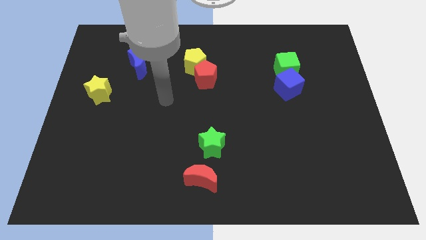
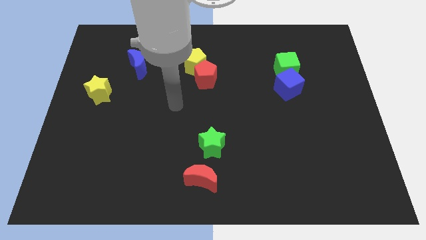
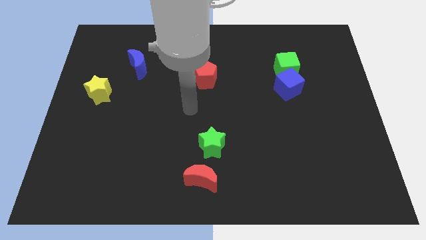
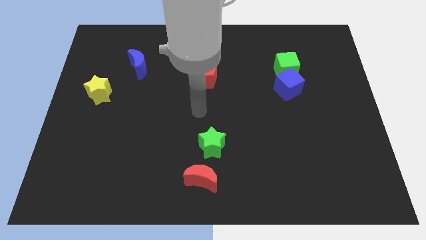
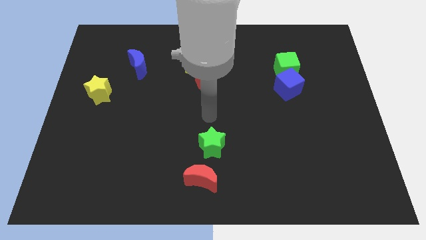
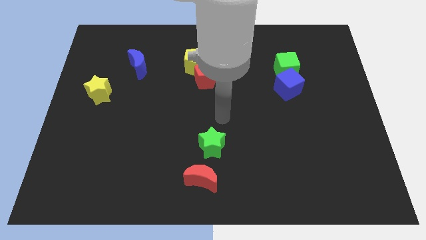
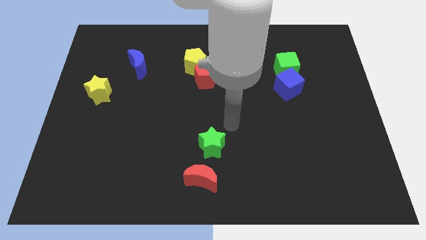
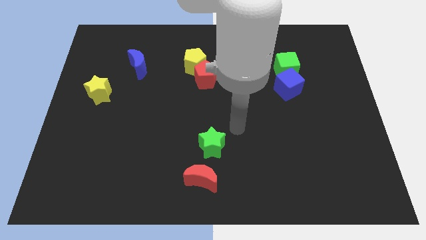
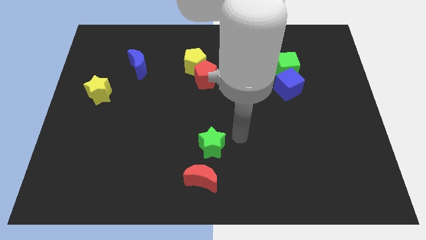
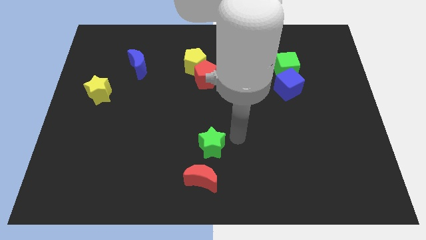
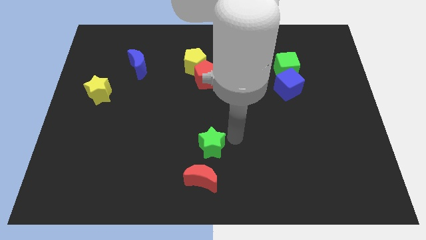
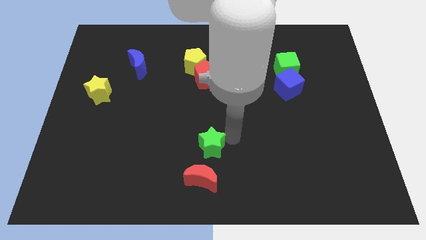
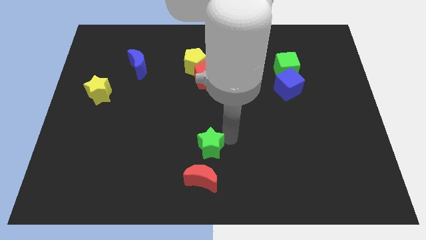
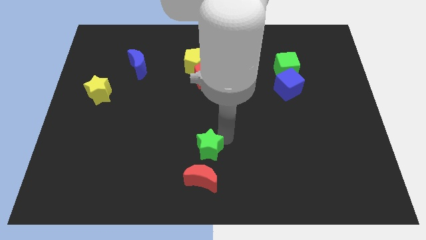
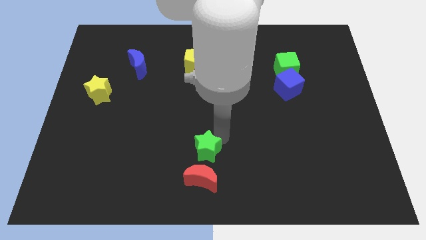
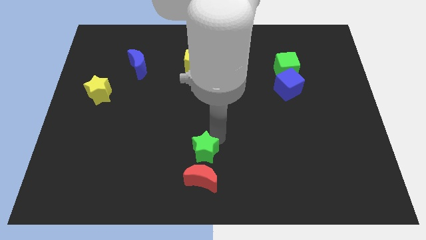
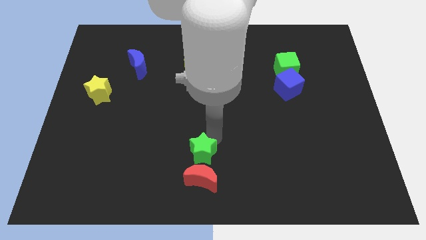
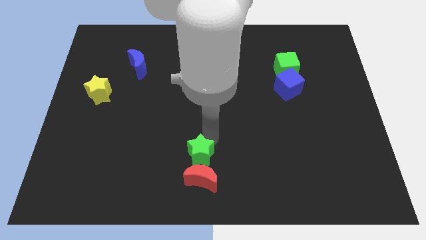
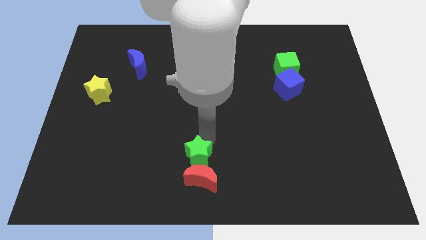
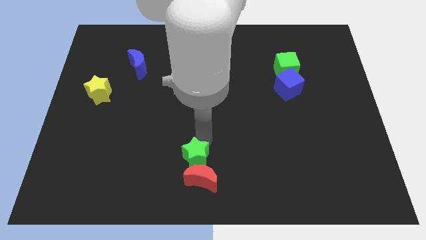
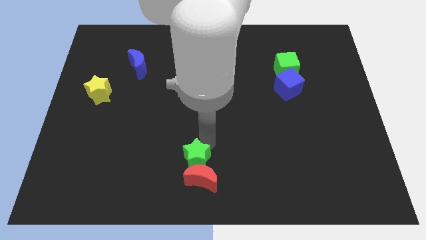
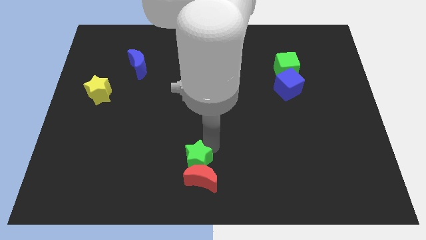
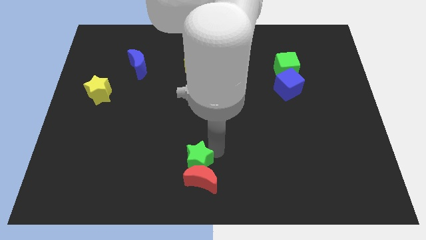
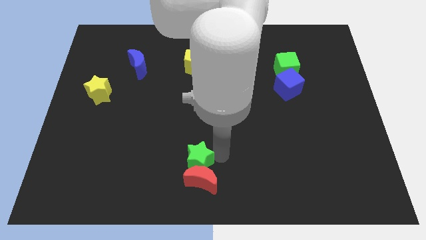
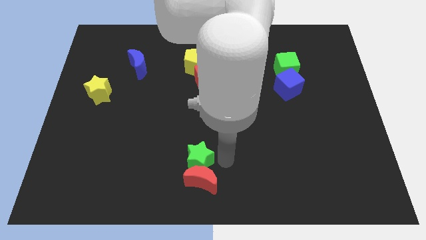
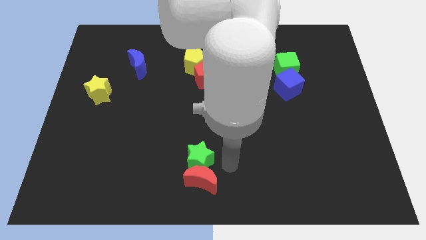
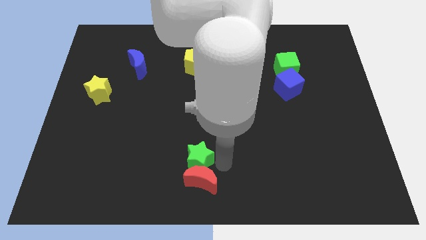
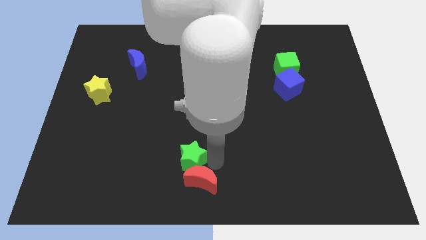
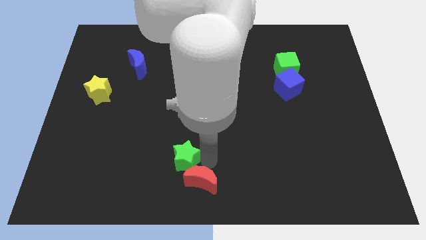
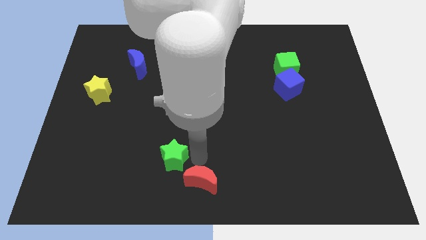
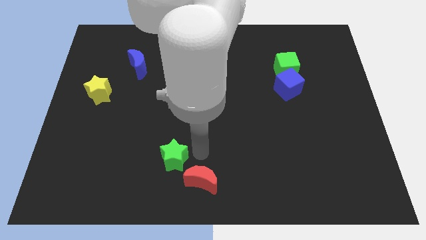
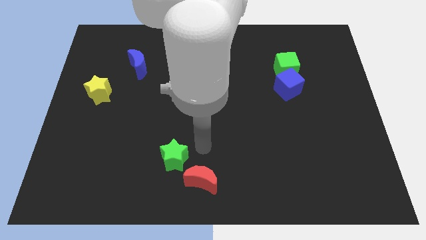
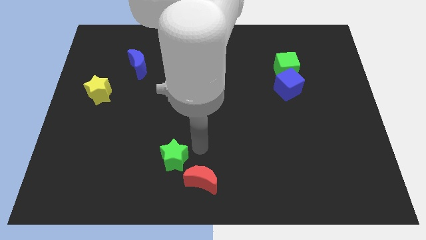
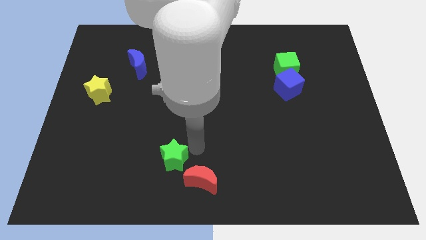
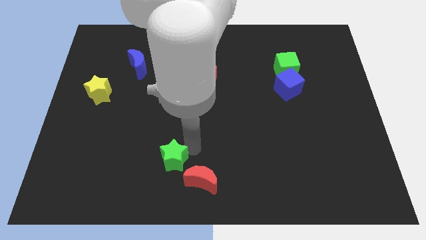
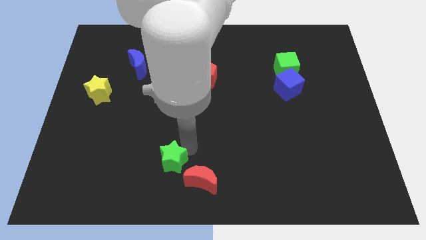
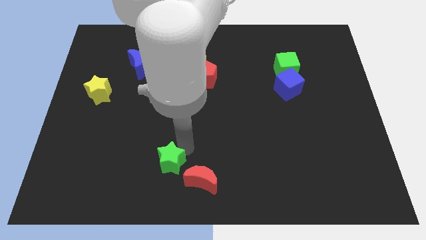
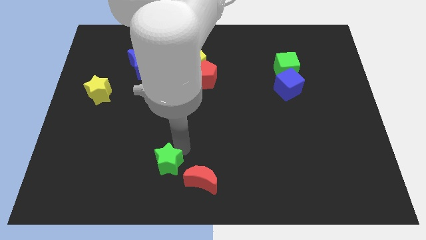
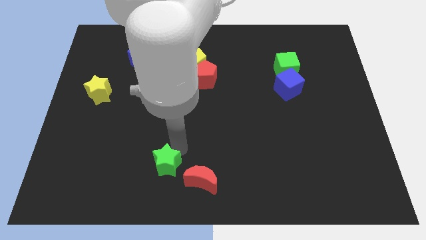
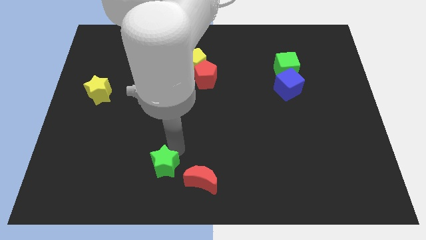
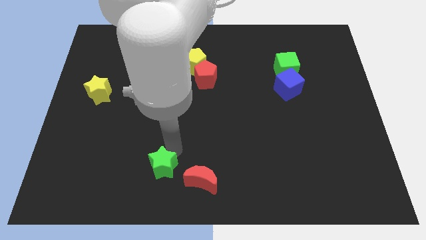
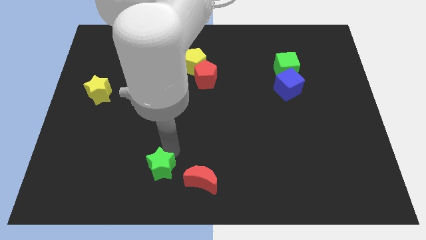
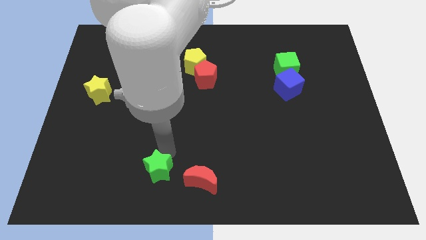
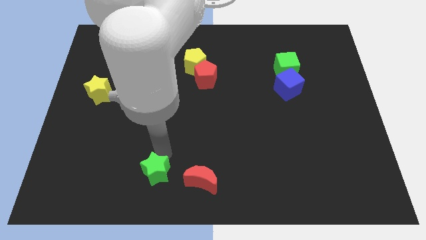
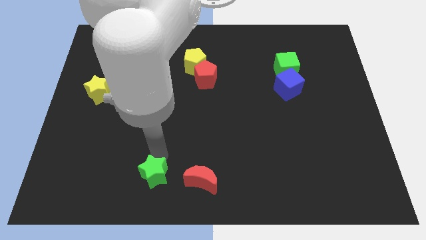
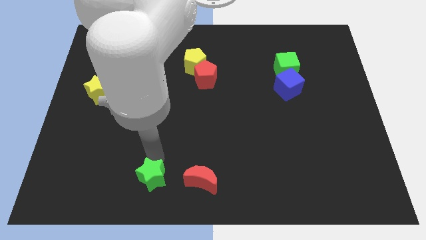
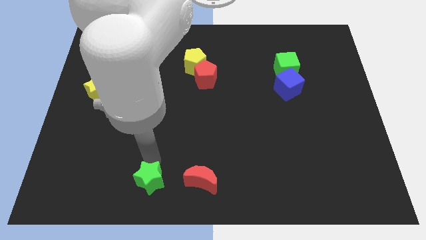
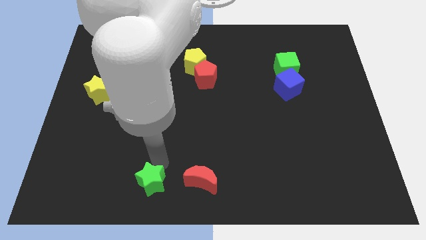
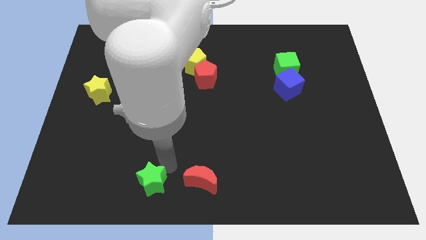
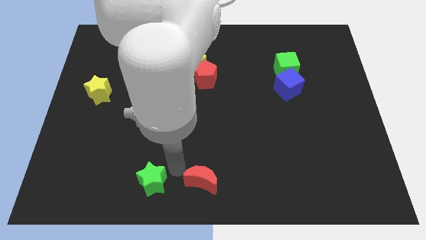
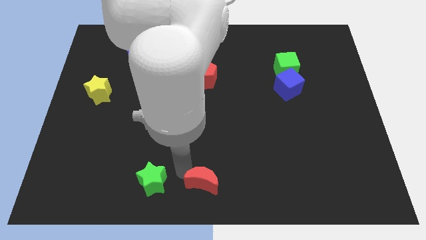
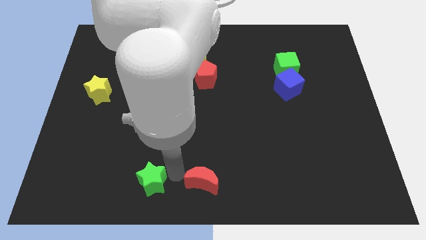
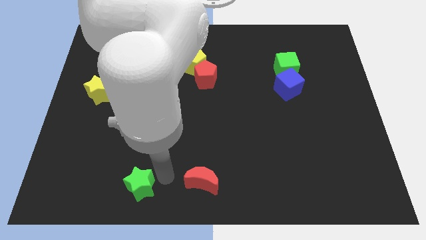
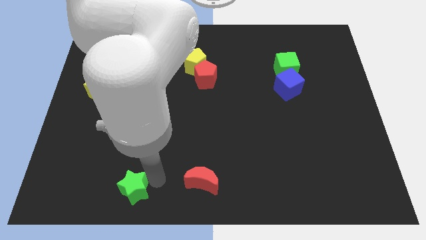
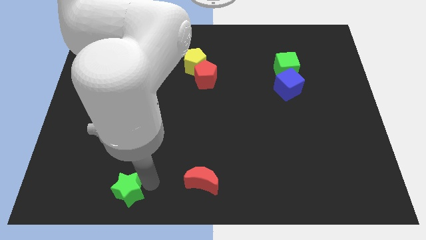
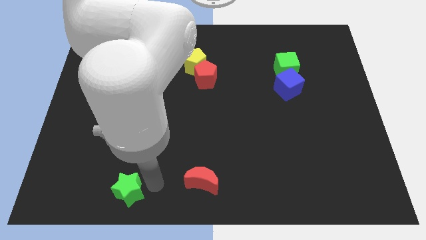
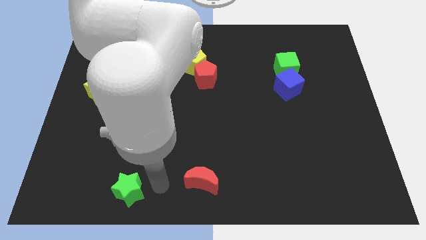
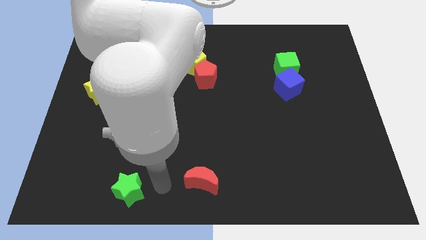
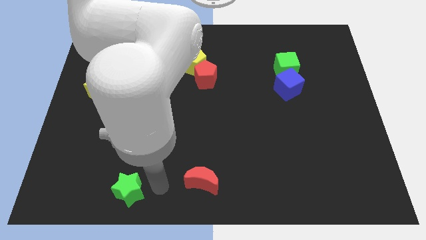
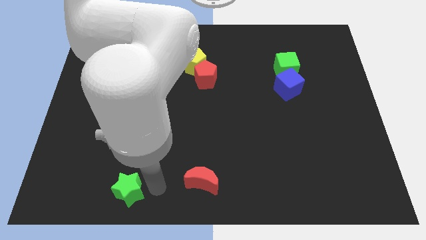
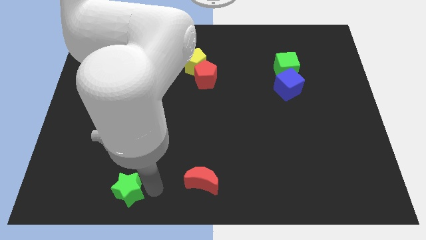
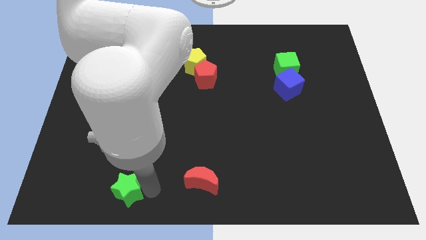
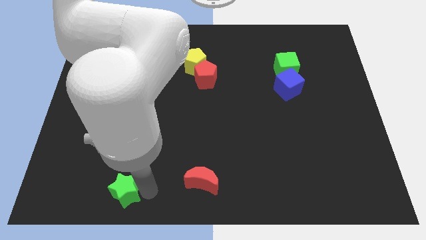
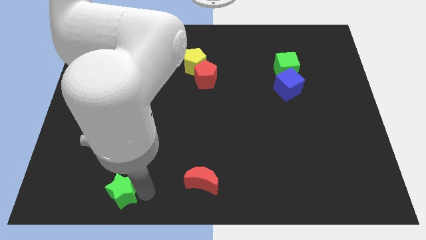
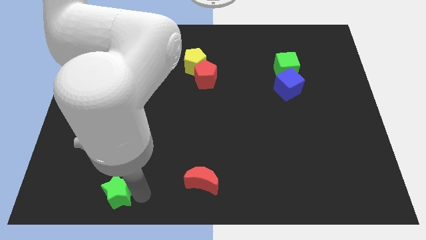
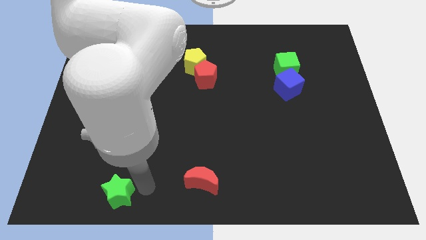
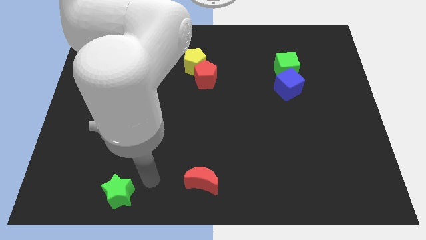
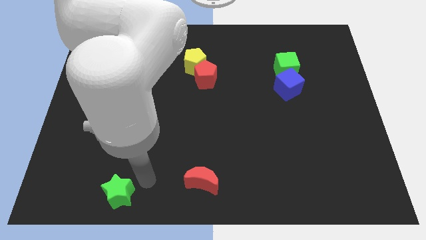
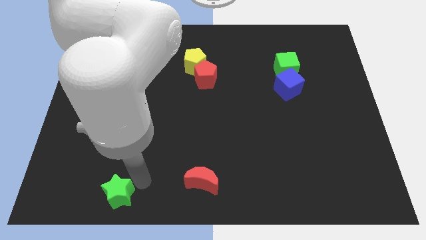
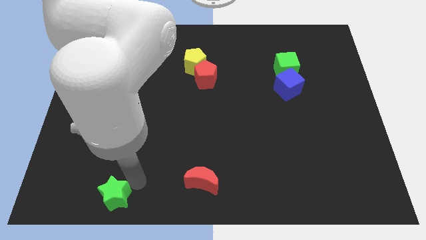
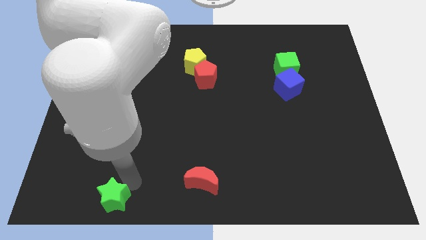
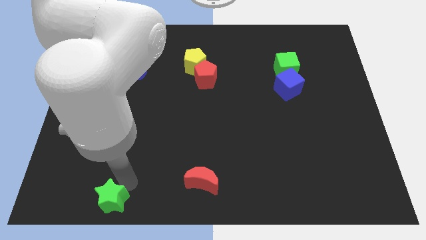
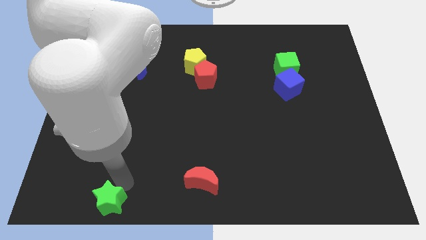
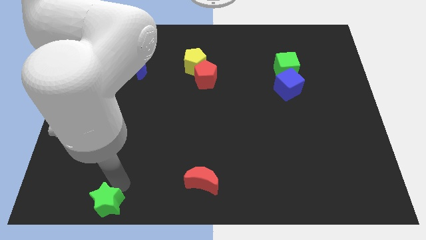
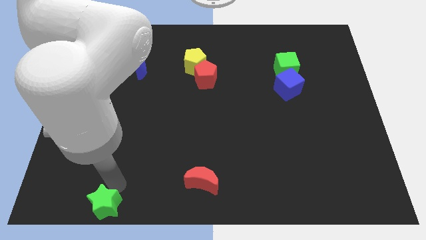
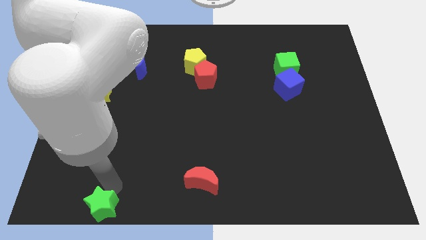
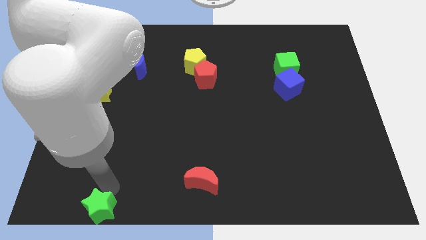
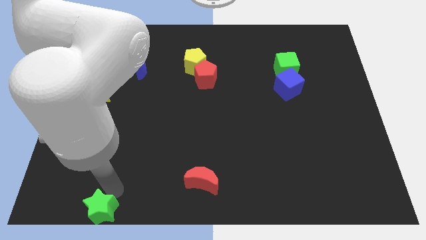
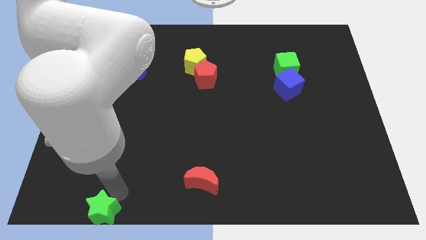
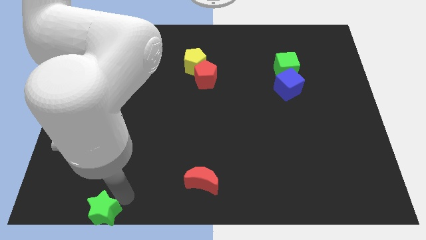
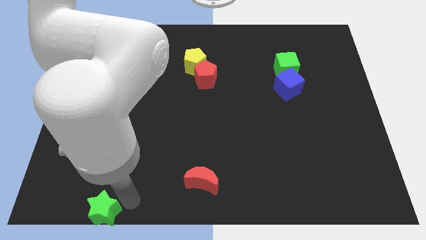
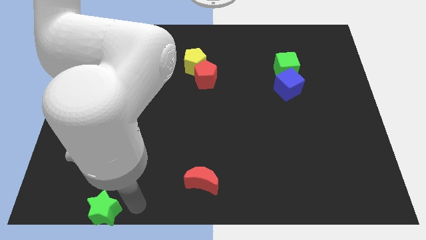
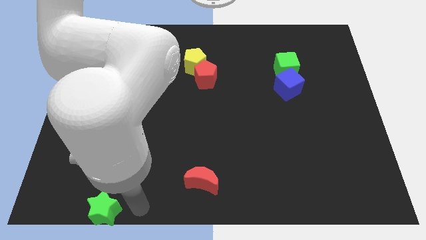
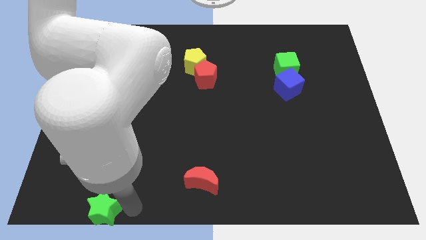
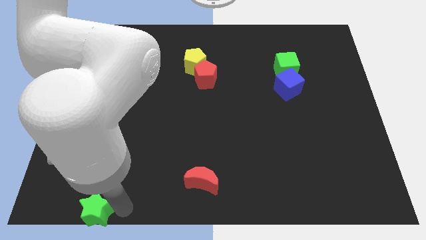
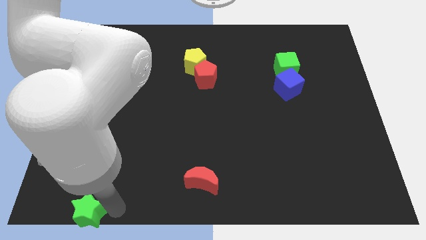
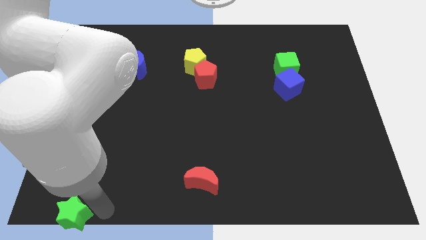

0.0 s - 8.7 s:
slide the green star to the bottom left
